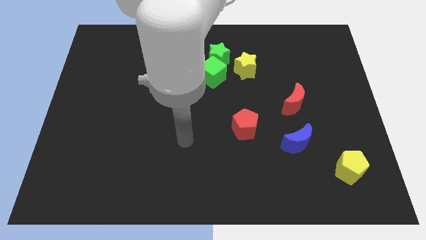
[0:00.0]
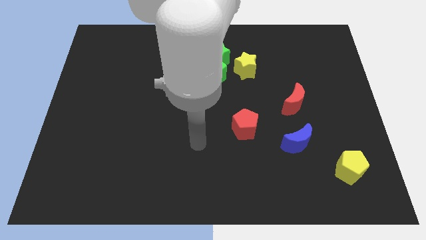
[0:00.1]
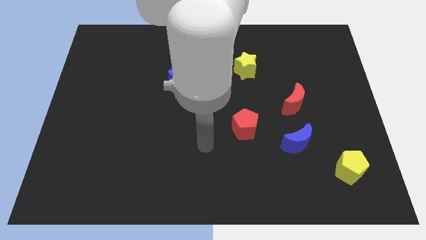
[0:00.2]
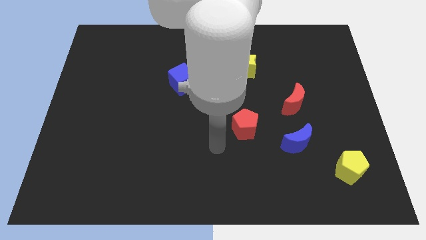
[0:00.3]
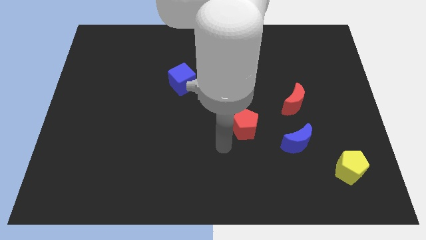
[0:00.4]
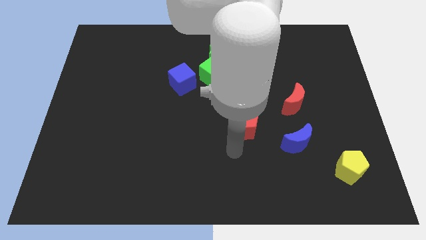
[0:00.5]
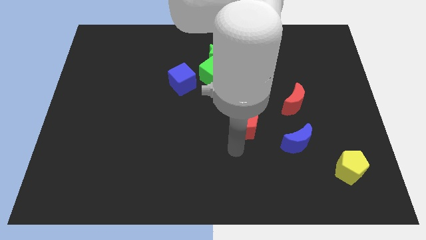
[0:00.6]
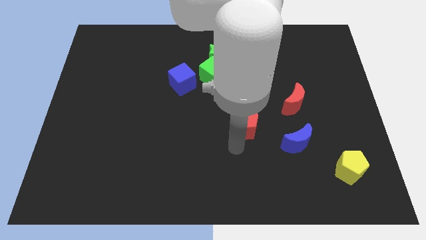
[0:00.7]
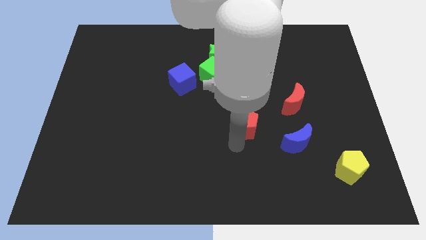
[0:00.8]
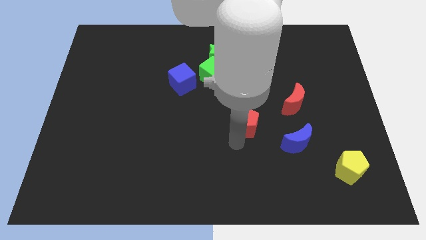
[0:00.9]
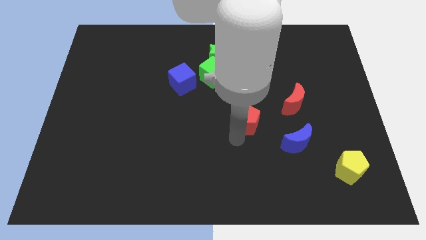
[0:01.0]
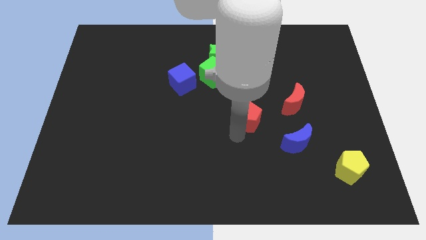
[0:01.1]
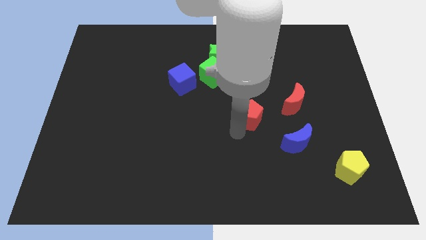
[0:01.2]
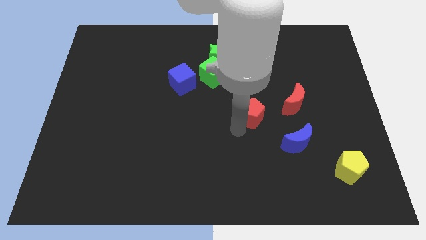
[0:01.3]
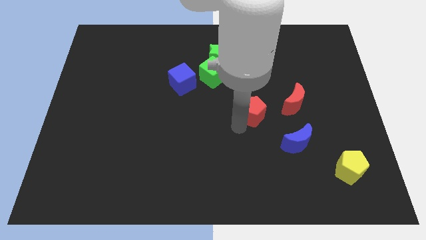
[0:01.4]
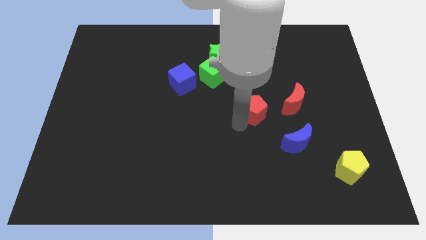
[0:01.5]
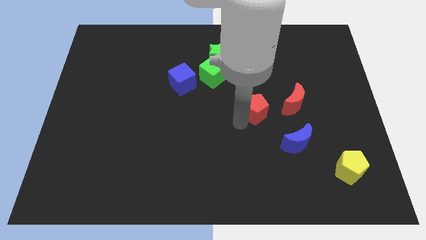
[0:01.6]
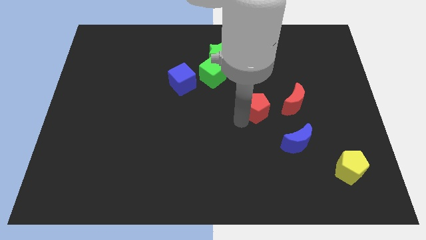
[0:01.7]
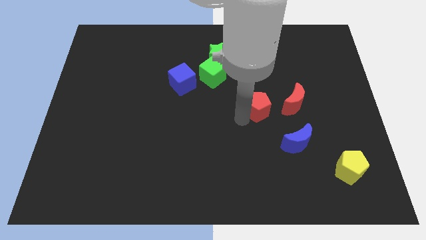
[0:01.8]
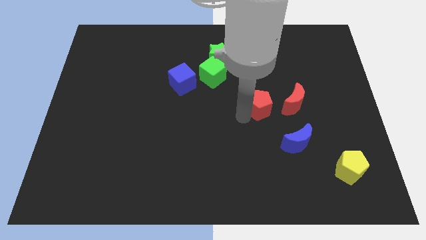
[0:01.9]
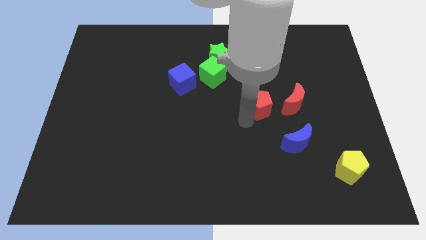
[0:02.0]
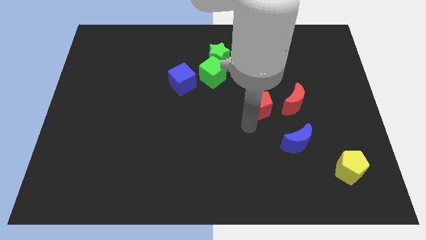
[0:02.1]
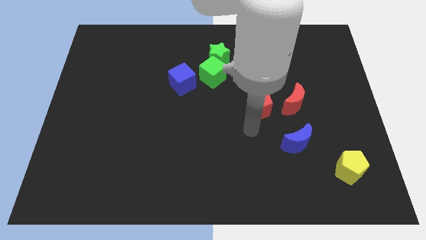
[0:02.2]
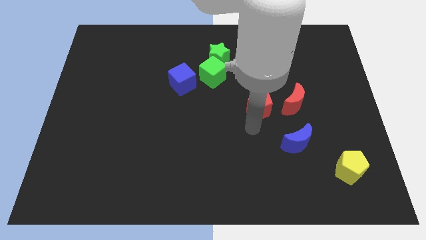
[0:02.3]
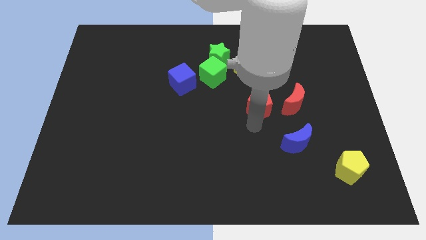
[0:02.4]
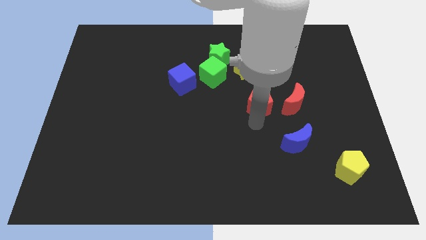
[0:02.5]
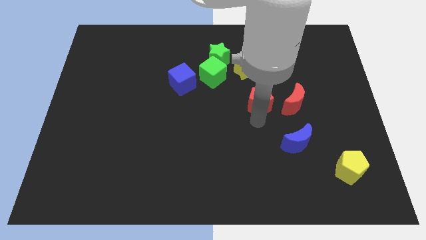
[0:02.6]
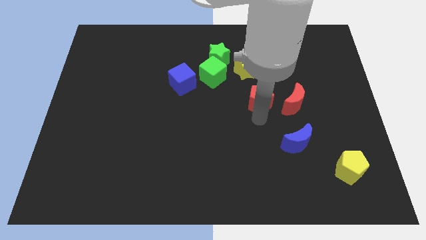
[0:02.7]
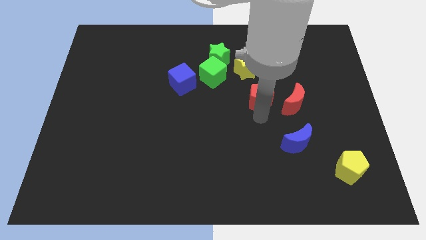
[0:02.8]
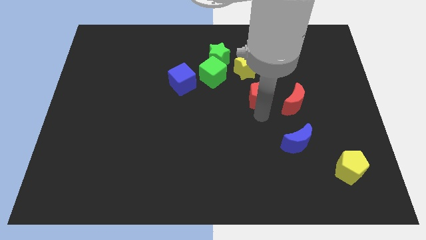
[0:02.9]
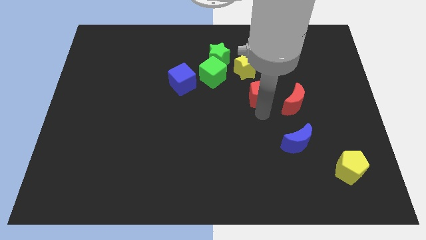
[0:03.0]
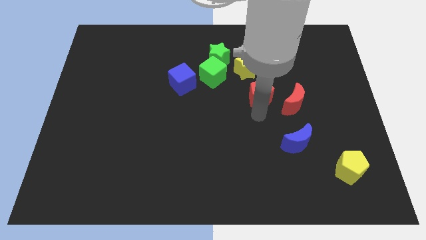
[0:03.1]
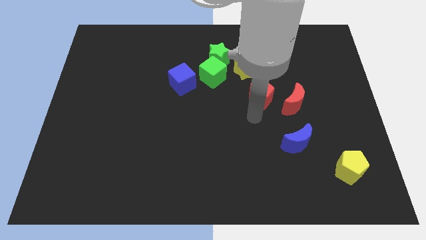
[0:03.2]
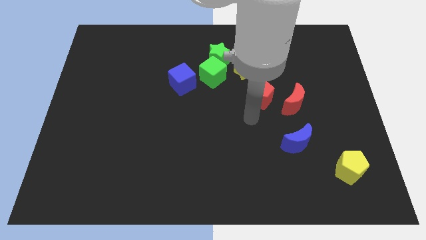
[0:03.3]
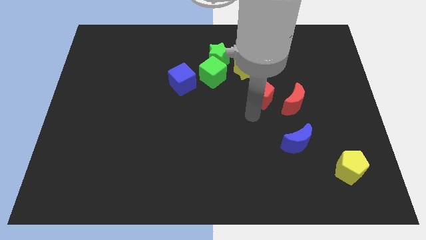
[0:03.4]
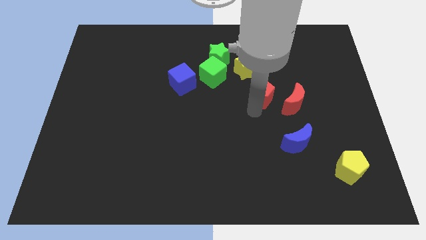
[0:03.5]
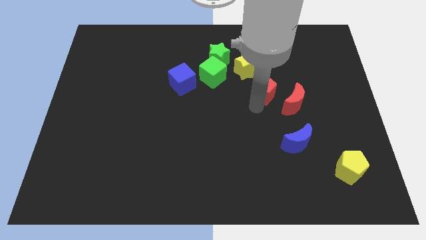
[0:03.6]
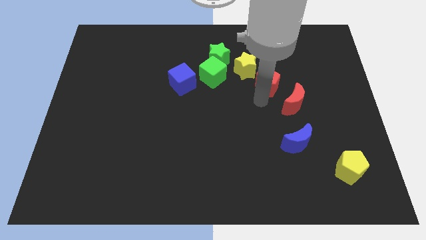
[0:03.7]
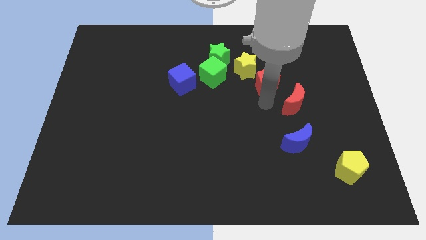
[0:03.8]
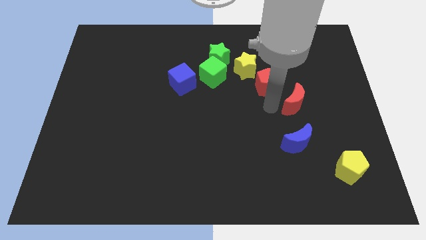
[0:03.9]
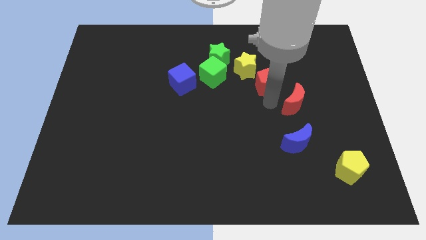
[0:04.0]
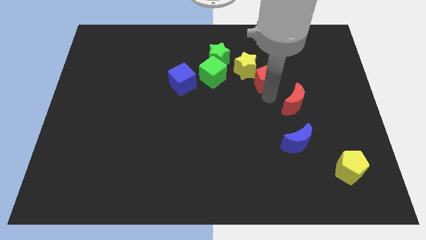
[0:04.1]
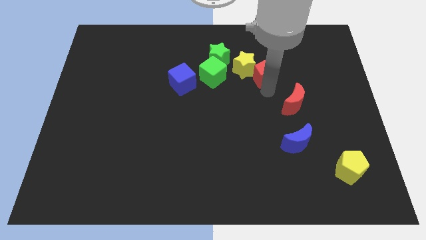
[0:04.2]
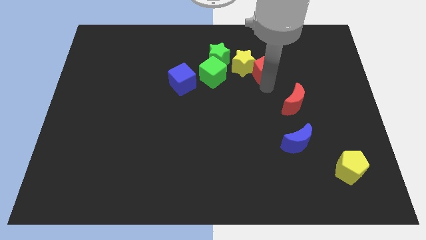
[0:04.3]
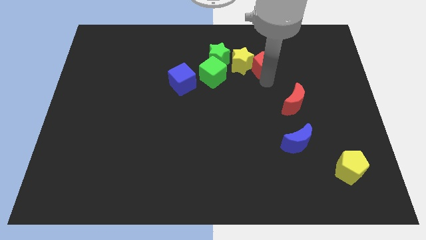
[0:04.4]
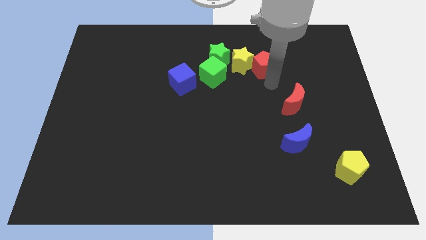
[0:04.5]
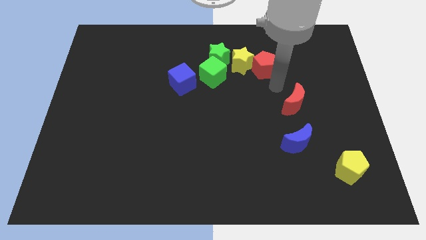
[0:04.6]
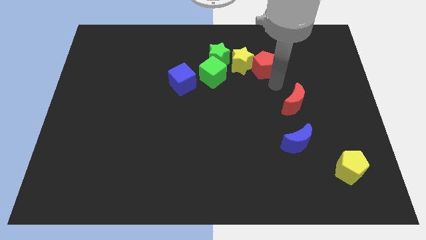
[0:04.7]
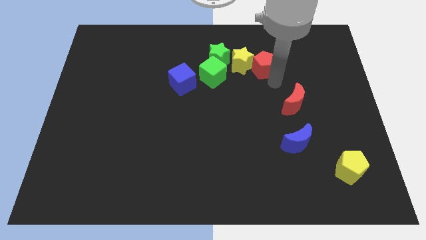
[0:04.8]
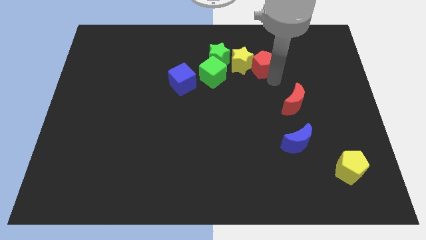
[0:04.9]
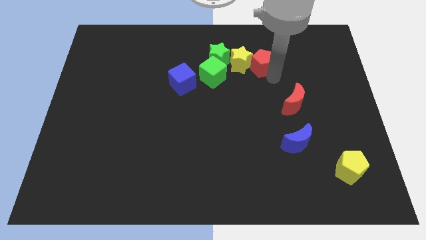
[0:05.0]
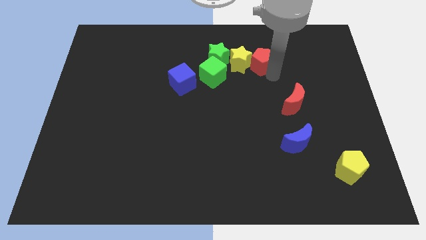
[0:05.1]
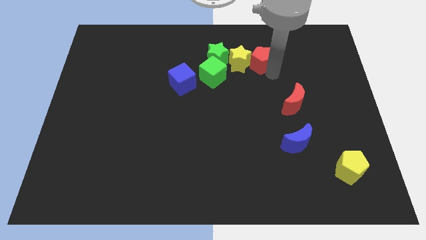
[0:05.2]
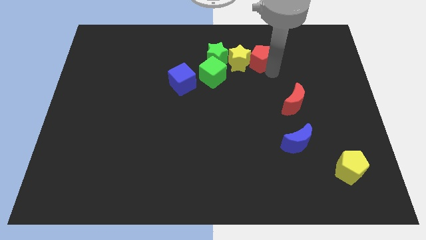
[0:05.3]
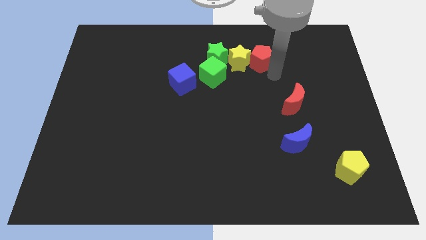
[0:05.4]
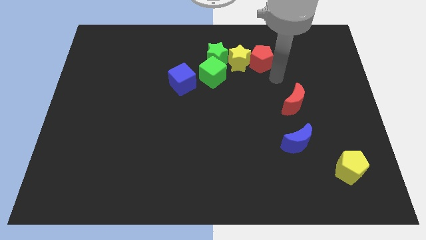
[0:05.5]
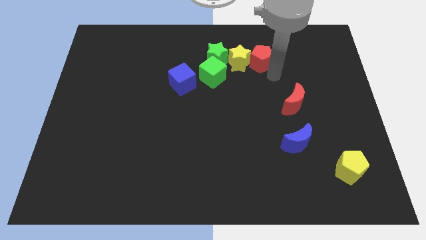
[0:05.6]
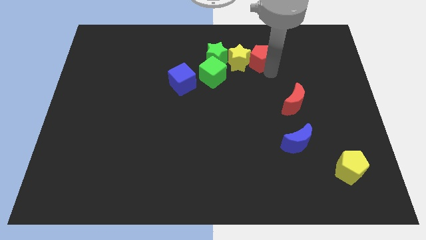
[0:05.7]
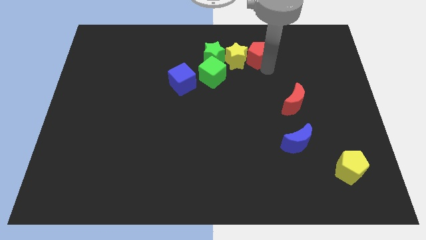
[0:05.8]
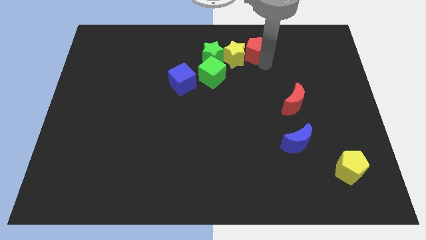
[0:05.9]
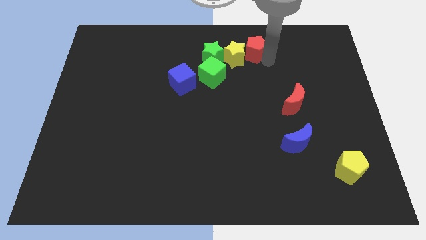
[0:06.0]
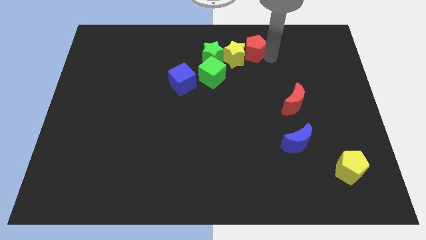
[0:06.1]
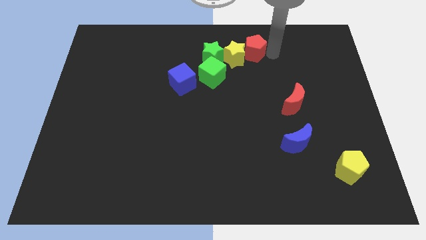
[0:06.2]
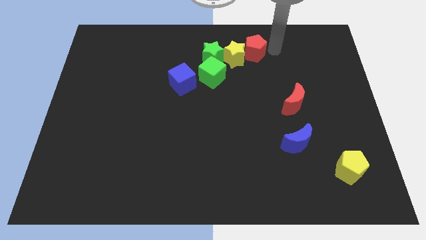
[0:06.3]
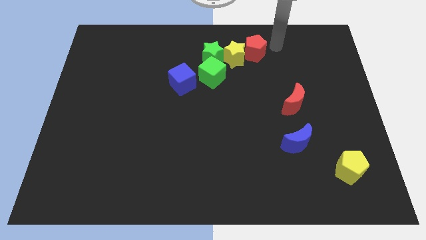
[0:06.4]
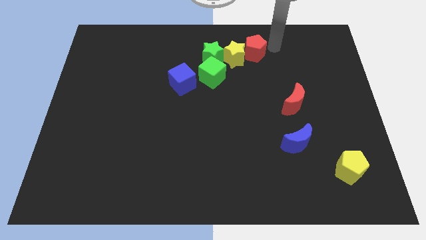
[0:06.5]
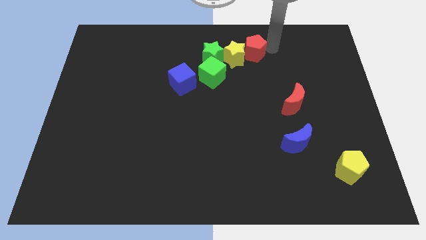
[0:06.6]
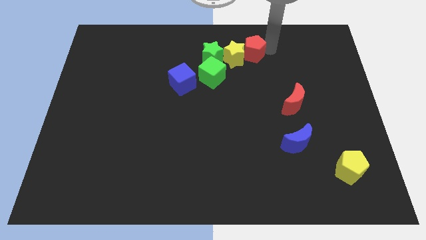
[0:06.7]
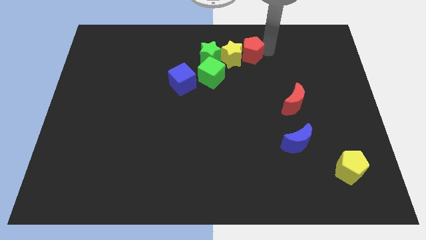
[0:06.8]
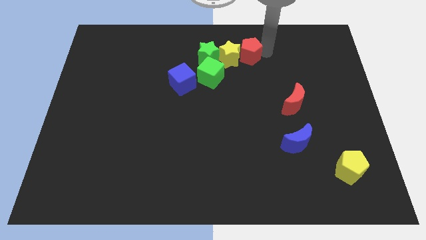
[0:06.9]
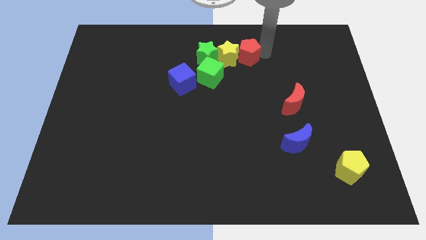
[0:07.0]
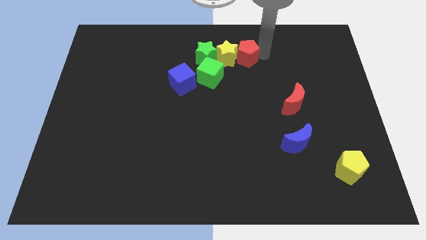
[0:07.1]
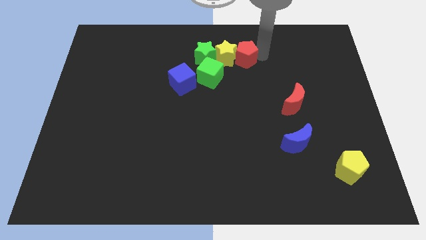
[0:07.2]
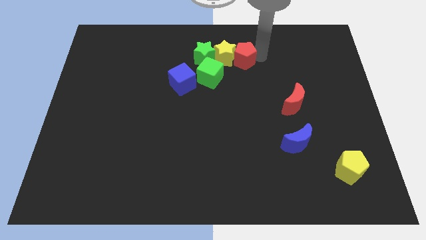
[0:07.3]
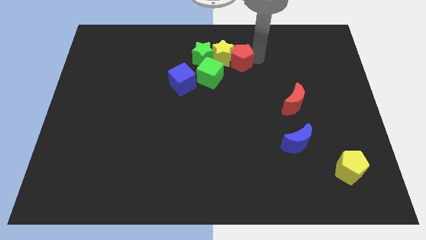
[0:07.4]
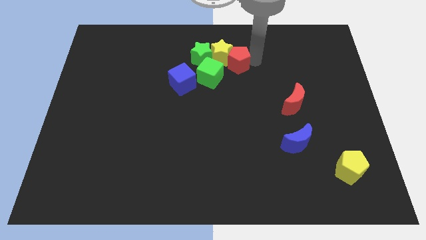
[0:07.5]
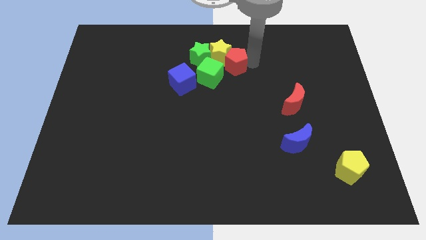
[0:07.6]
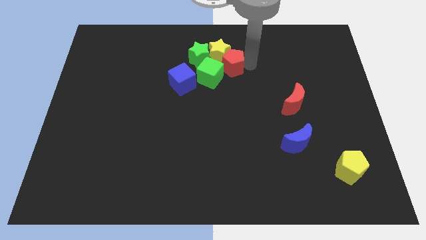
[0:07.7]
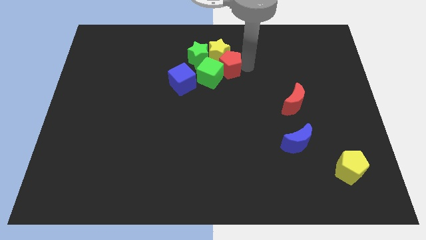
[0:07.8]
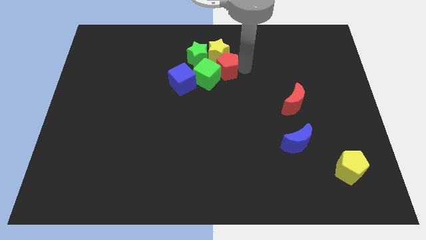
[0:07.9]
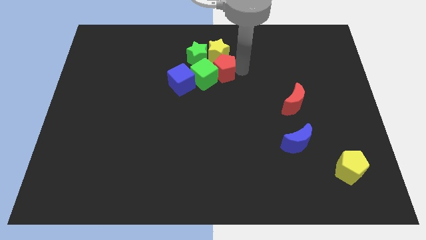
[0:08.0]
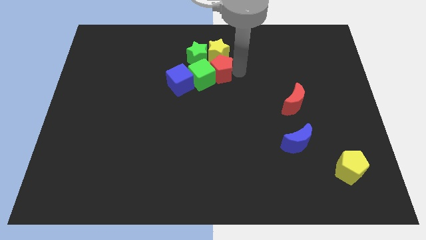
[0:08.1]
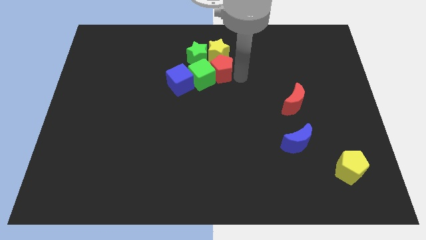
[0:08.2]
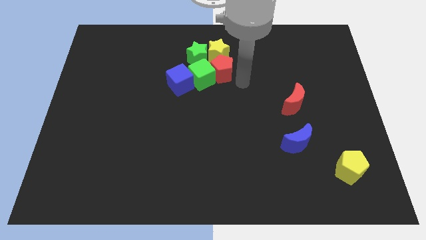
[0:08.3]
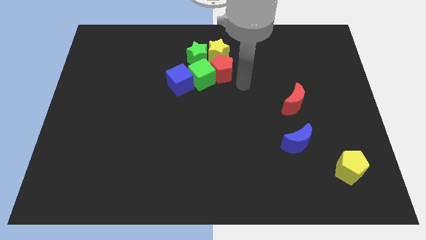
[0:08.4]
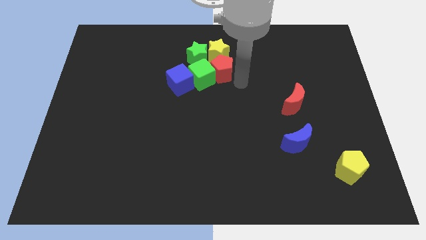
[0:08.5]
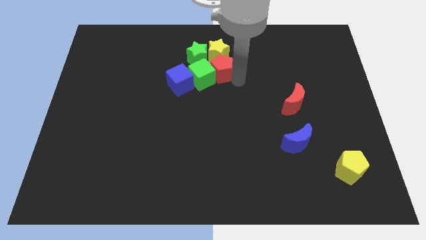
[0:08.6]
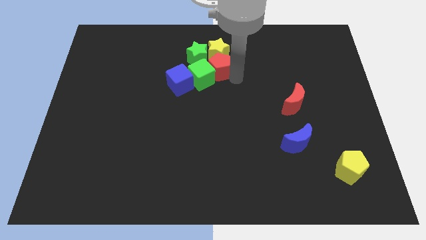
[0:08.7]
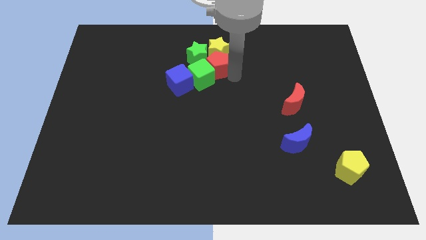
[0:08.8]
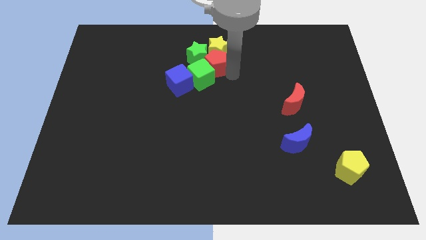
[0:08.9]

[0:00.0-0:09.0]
put the red pentagon next to the green star
